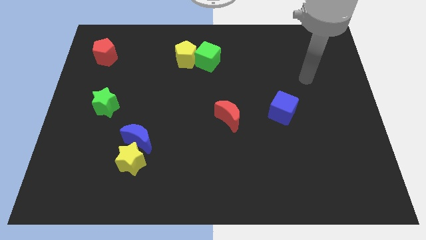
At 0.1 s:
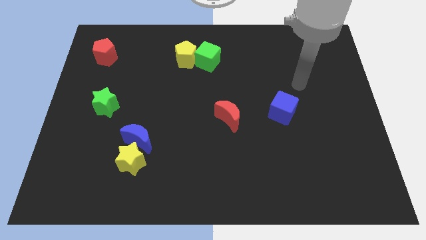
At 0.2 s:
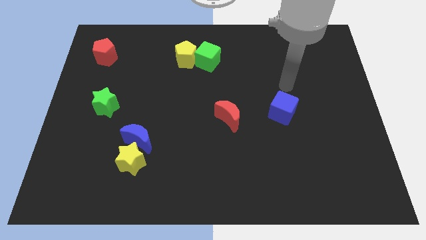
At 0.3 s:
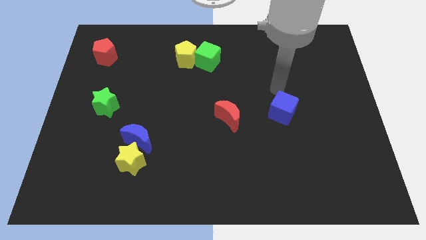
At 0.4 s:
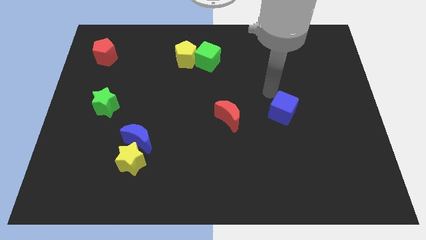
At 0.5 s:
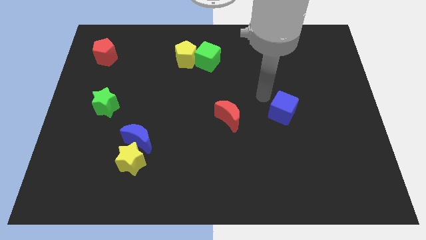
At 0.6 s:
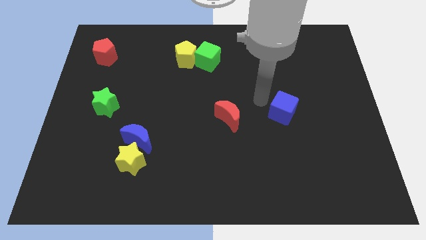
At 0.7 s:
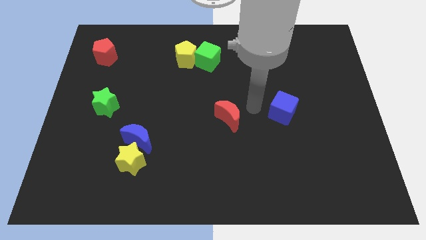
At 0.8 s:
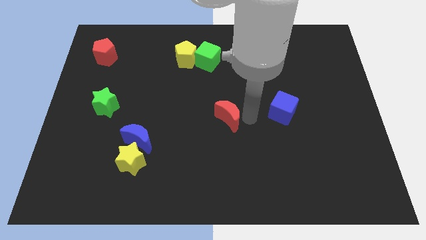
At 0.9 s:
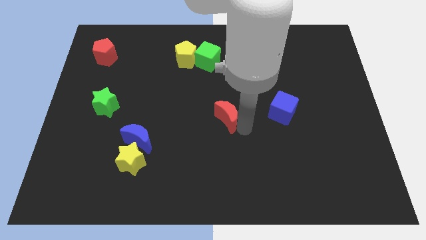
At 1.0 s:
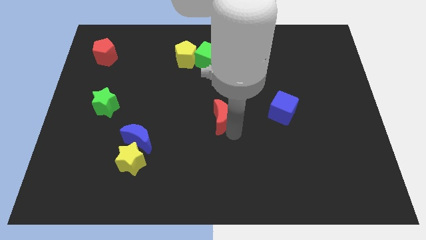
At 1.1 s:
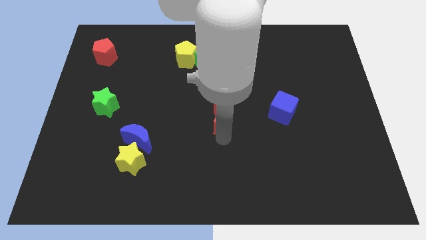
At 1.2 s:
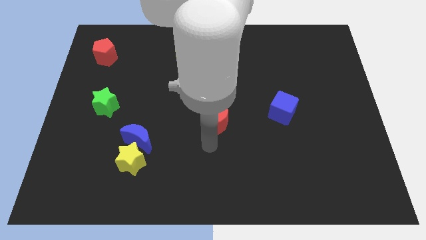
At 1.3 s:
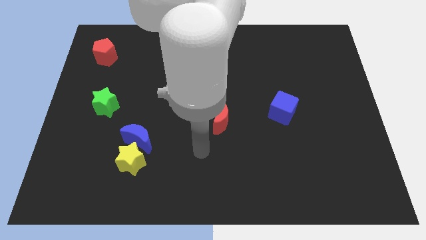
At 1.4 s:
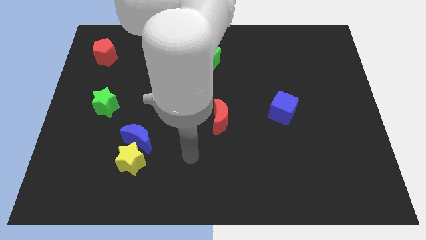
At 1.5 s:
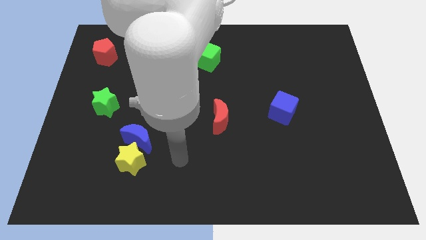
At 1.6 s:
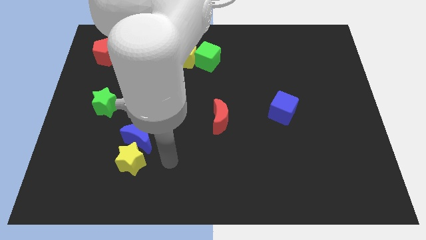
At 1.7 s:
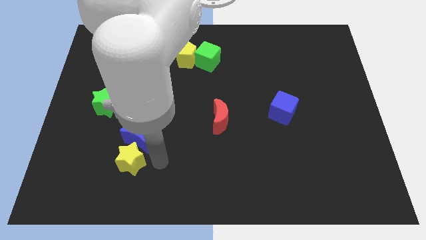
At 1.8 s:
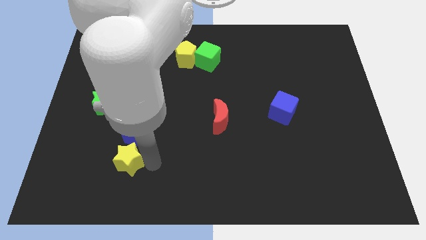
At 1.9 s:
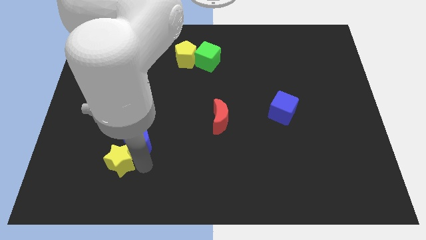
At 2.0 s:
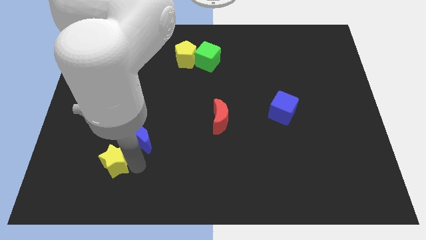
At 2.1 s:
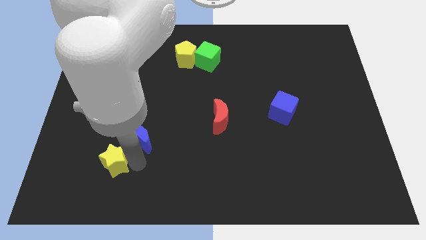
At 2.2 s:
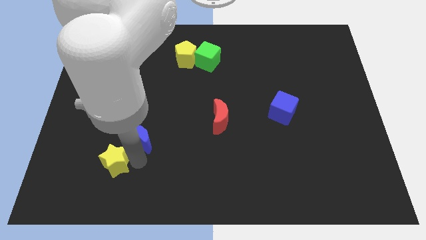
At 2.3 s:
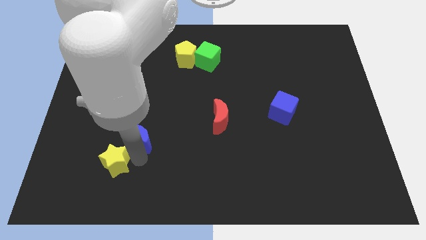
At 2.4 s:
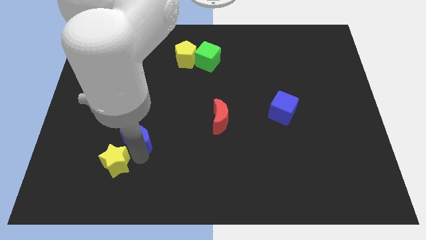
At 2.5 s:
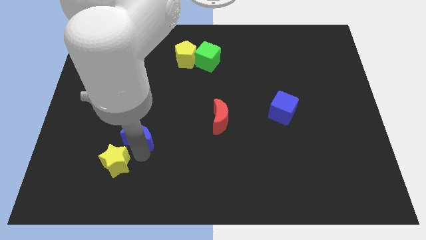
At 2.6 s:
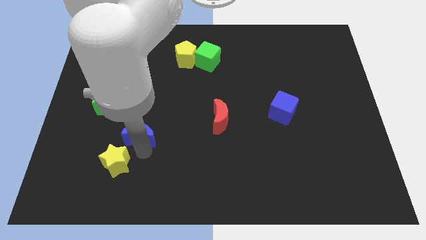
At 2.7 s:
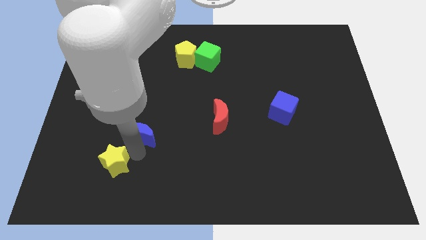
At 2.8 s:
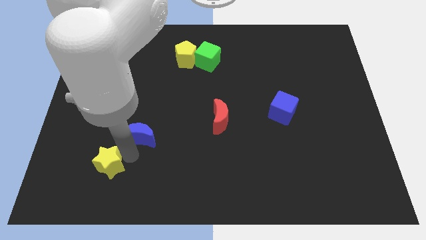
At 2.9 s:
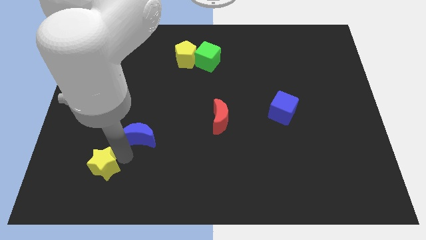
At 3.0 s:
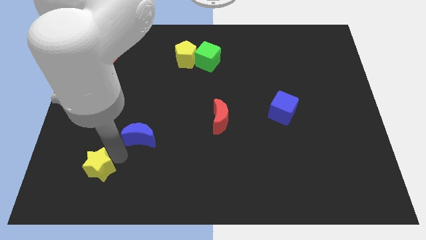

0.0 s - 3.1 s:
move the blue moon away from the yellow star

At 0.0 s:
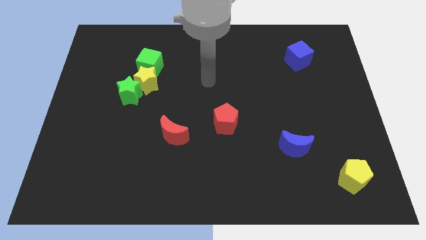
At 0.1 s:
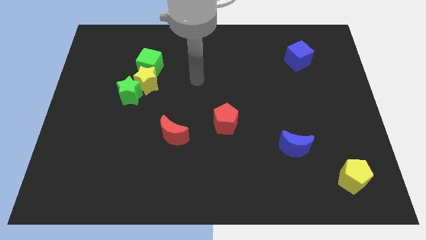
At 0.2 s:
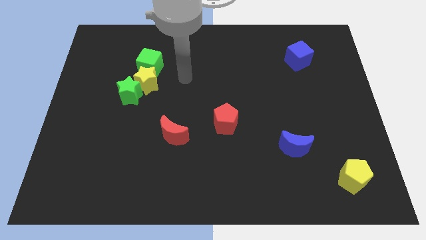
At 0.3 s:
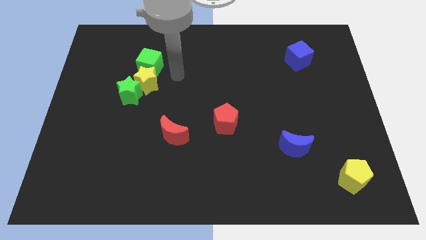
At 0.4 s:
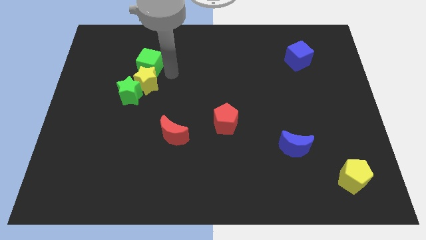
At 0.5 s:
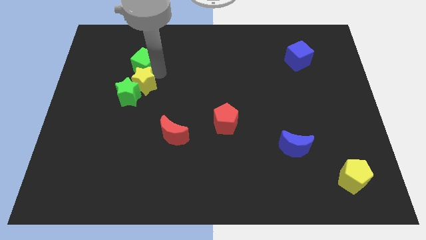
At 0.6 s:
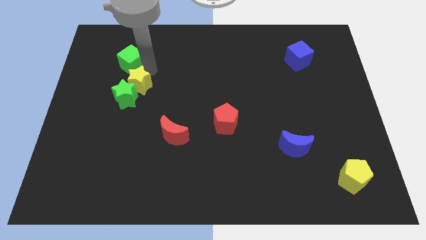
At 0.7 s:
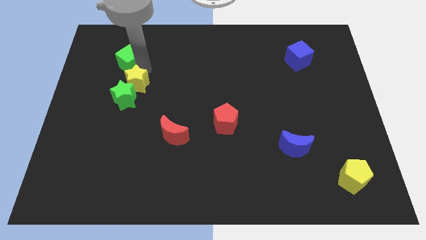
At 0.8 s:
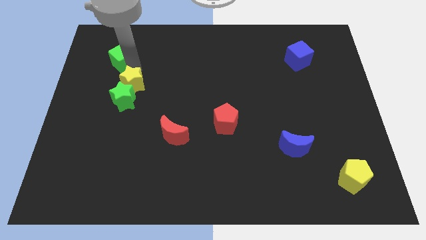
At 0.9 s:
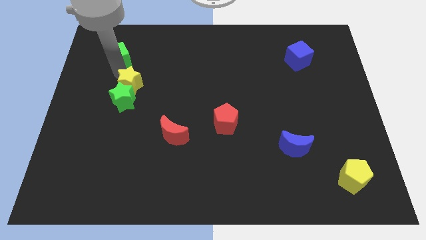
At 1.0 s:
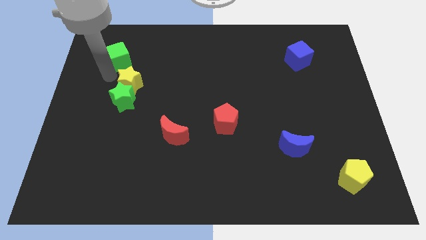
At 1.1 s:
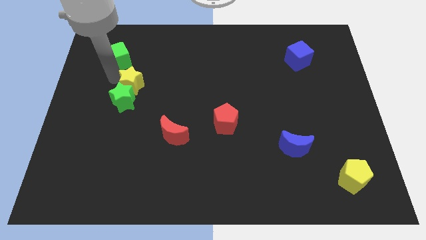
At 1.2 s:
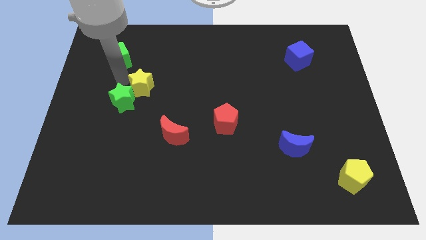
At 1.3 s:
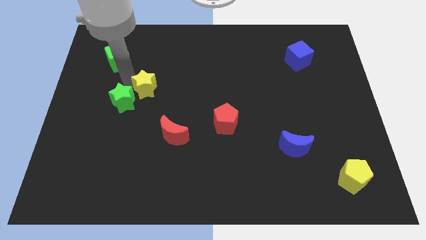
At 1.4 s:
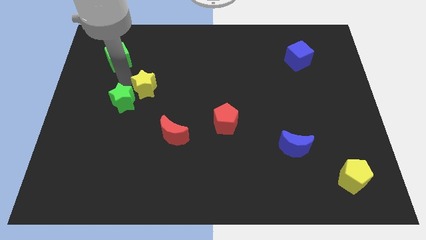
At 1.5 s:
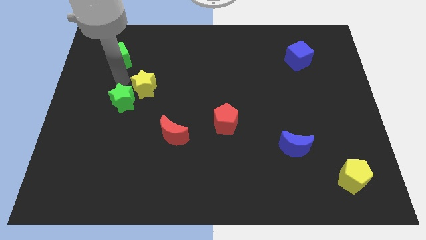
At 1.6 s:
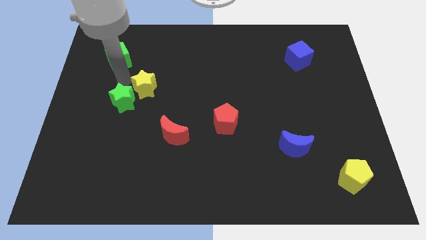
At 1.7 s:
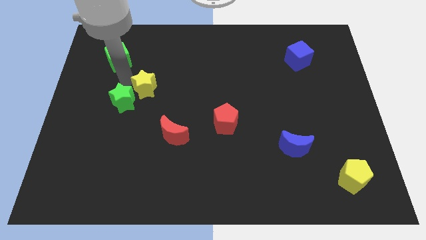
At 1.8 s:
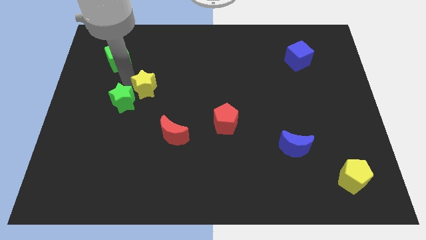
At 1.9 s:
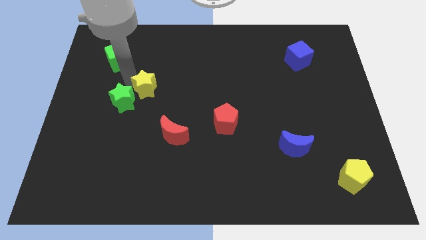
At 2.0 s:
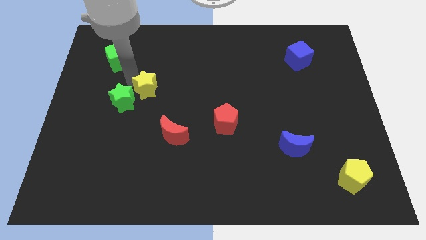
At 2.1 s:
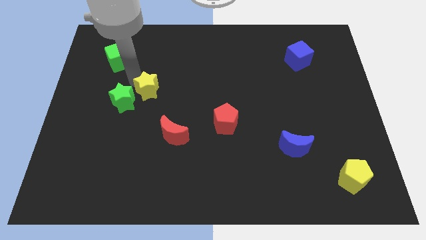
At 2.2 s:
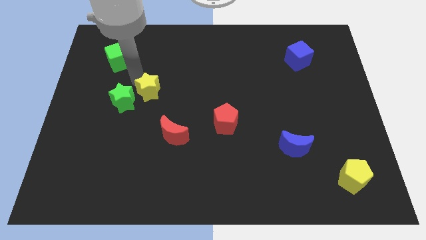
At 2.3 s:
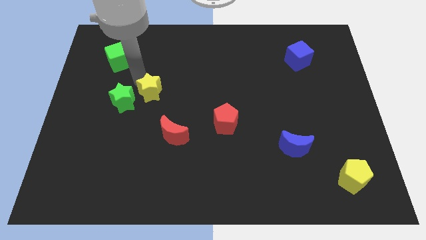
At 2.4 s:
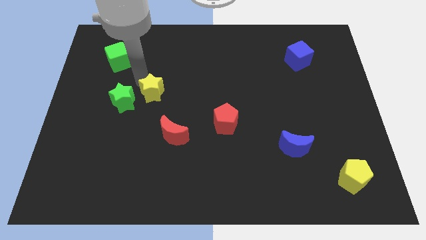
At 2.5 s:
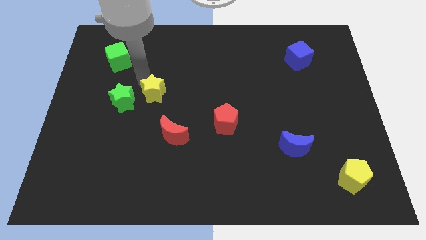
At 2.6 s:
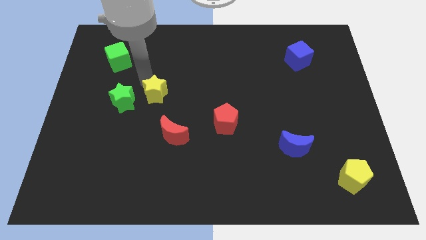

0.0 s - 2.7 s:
pull the yellow star apart from the green star and green cube

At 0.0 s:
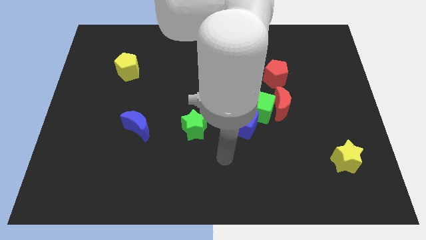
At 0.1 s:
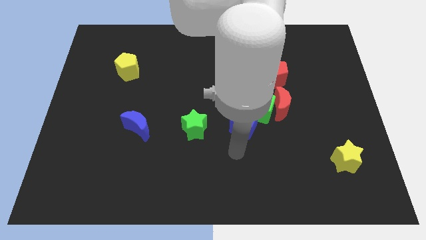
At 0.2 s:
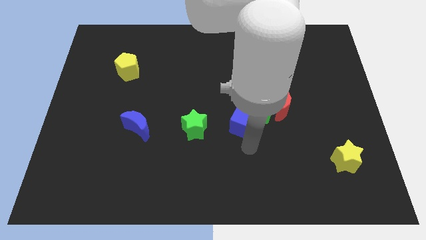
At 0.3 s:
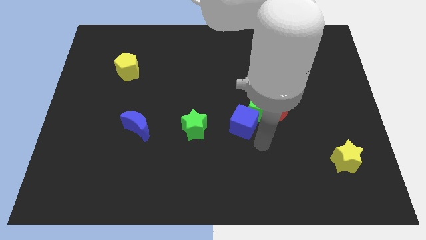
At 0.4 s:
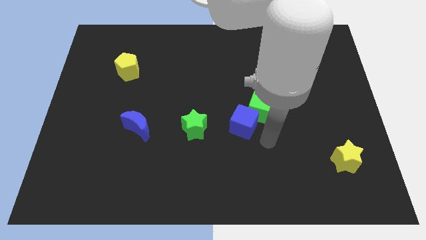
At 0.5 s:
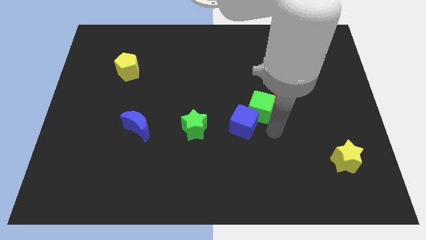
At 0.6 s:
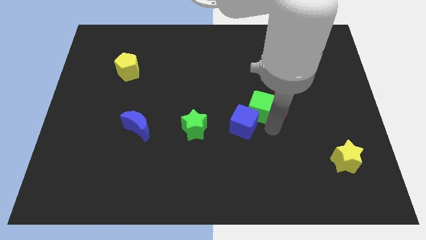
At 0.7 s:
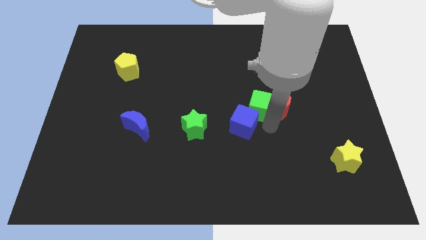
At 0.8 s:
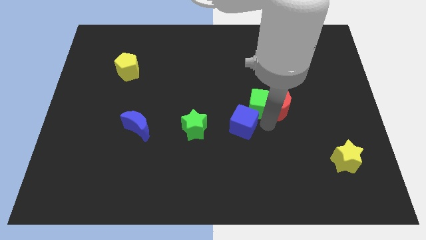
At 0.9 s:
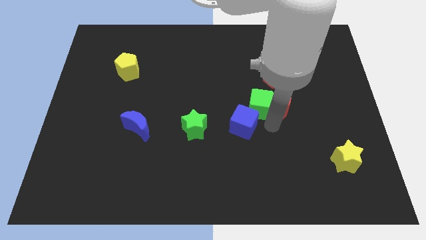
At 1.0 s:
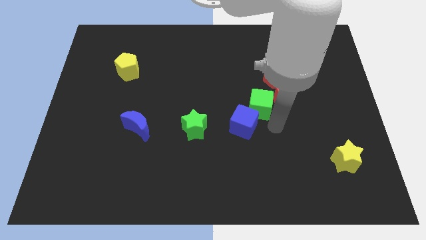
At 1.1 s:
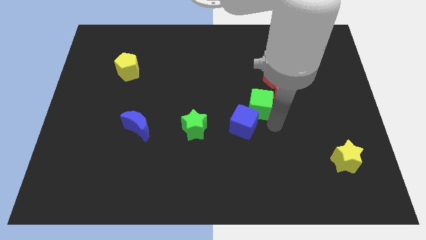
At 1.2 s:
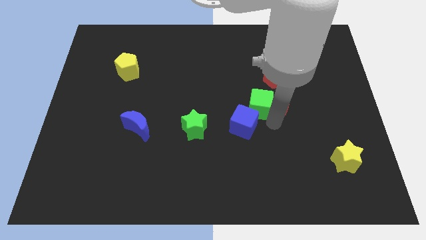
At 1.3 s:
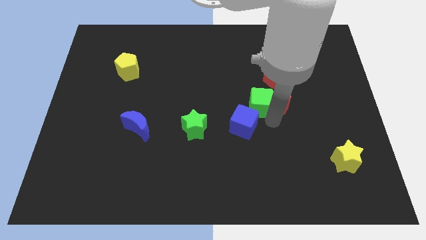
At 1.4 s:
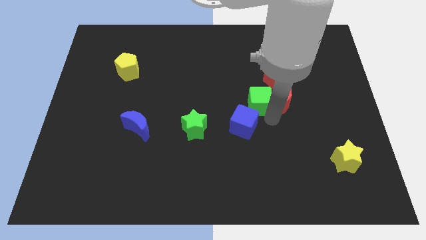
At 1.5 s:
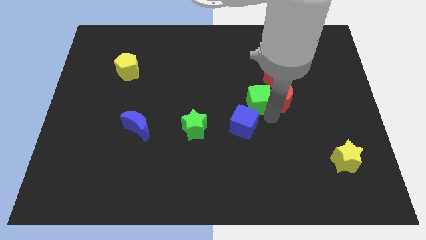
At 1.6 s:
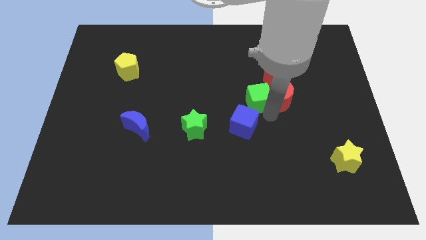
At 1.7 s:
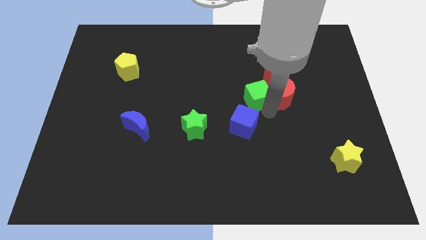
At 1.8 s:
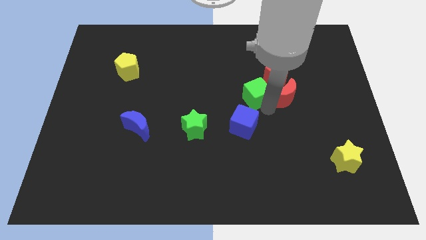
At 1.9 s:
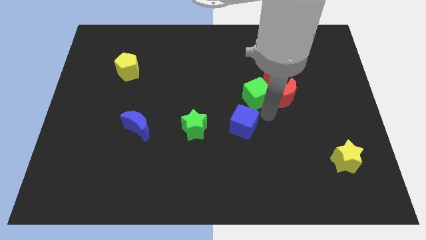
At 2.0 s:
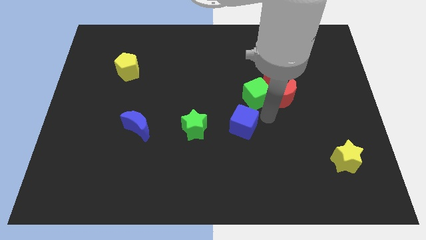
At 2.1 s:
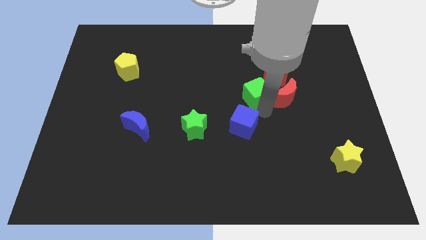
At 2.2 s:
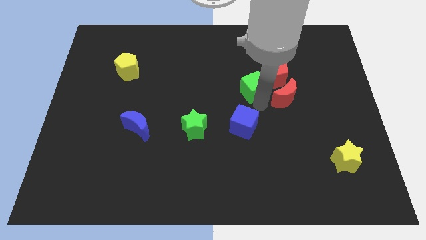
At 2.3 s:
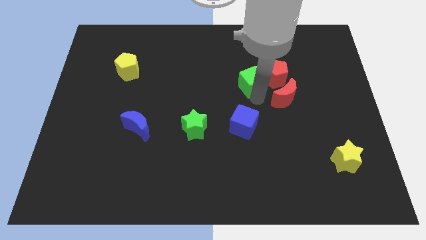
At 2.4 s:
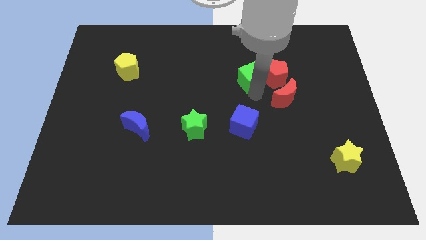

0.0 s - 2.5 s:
move the green cube away from the red moon and blue cube

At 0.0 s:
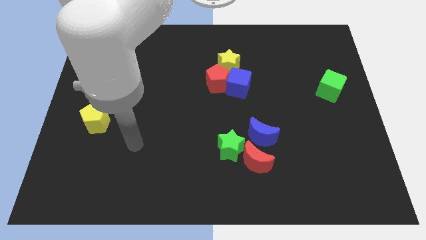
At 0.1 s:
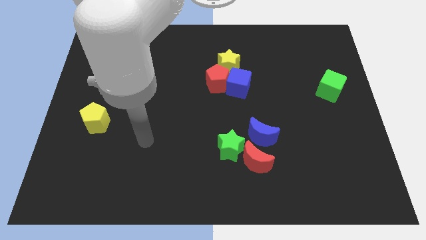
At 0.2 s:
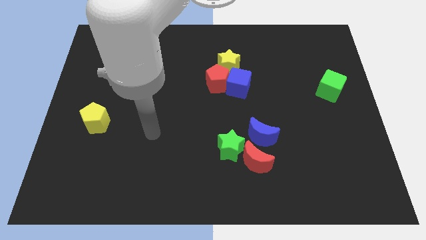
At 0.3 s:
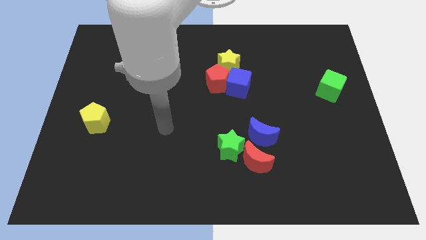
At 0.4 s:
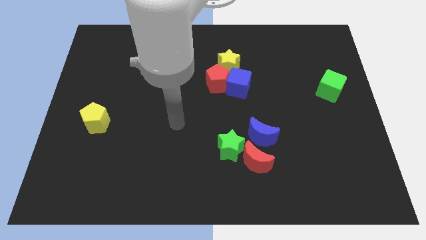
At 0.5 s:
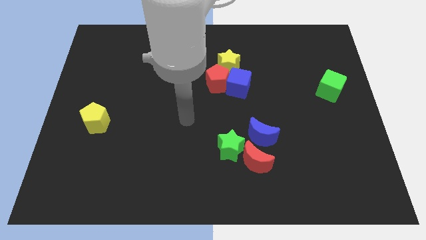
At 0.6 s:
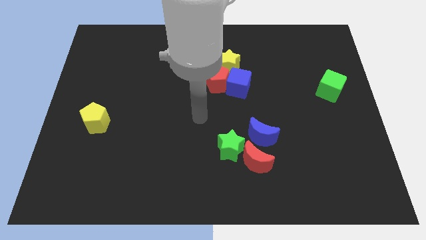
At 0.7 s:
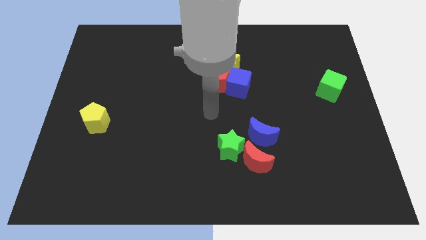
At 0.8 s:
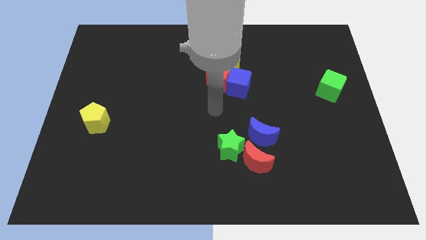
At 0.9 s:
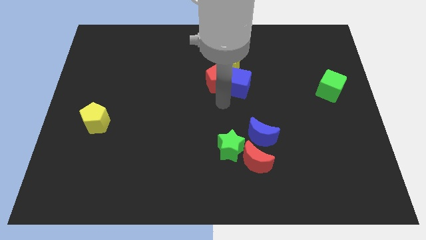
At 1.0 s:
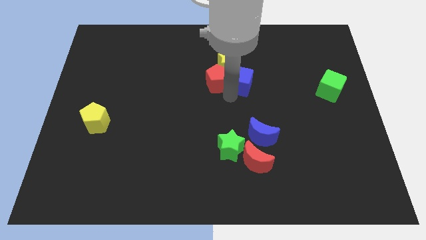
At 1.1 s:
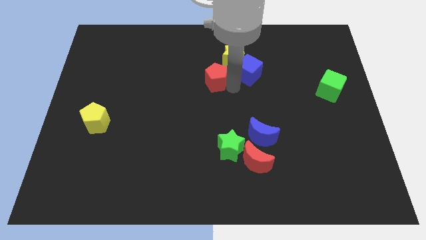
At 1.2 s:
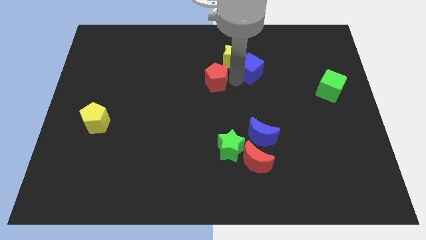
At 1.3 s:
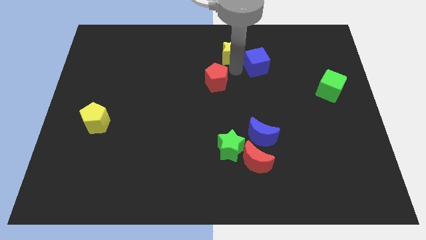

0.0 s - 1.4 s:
separate the red pentagon from the blue cube and yellow star
